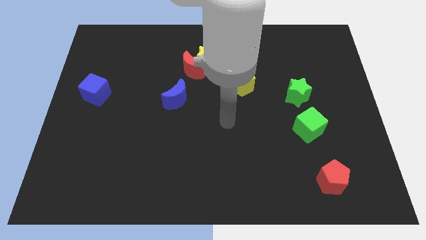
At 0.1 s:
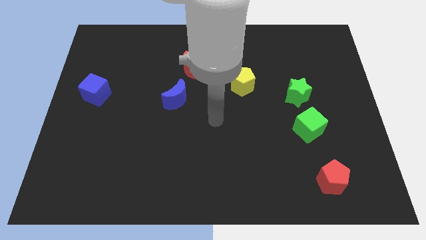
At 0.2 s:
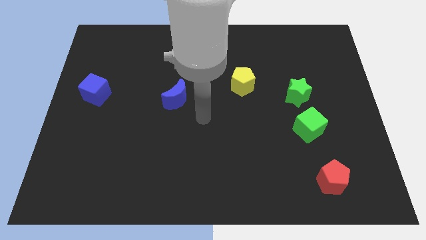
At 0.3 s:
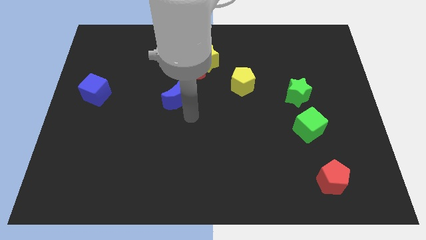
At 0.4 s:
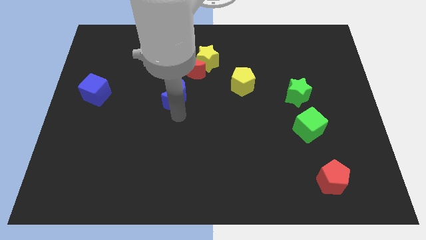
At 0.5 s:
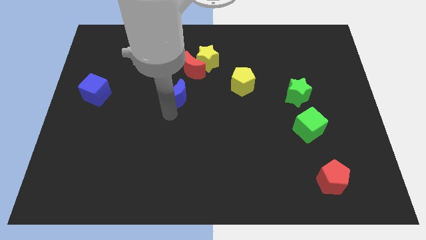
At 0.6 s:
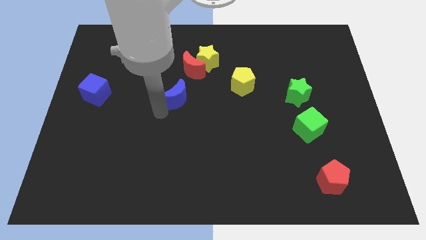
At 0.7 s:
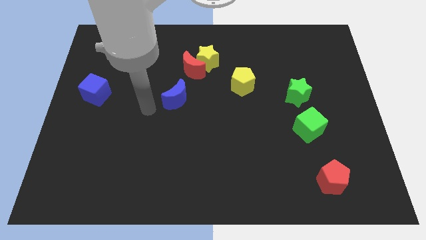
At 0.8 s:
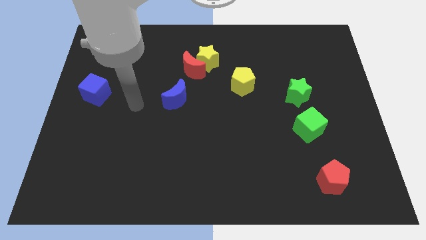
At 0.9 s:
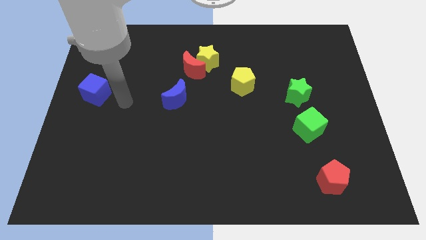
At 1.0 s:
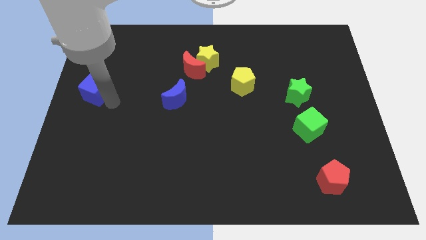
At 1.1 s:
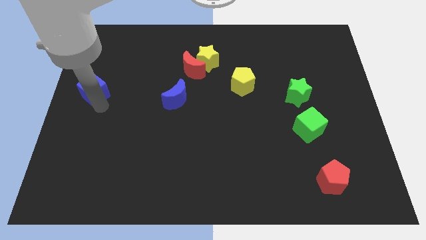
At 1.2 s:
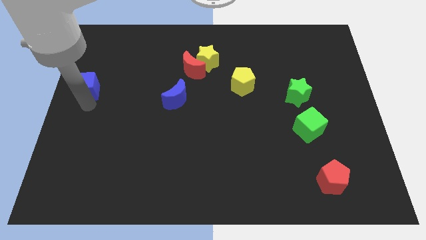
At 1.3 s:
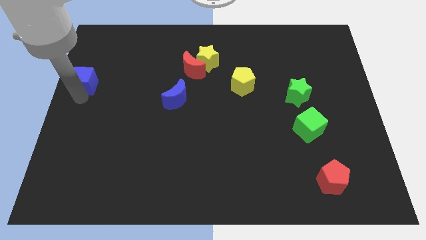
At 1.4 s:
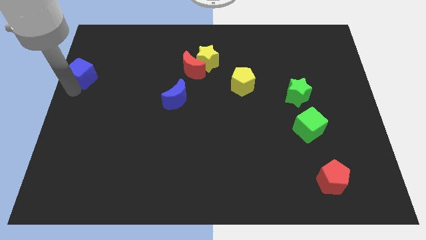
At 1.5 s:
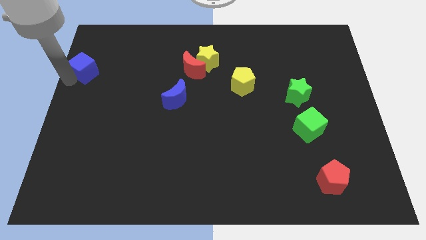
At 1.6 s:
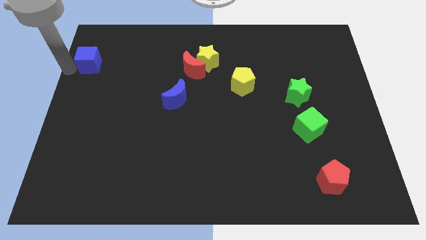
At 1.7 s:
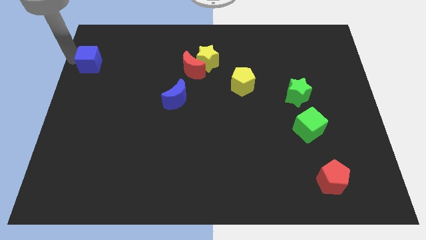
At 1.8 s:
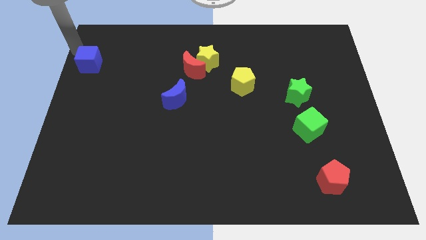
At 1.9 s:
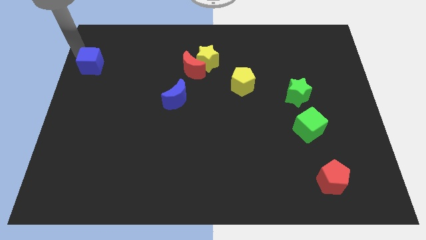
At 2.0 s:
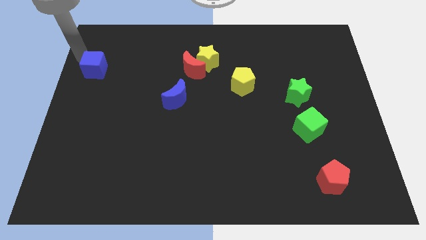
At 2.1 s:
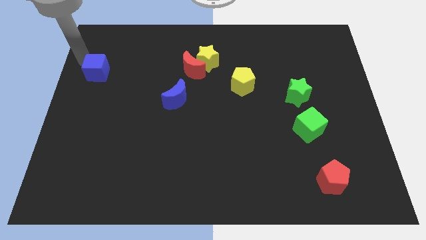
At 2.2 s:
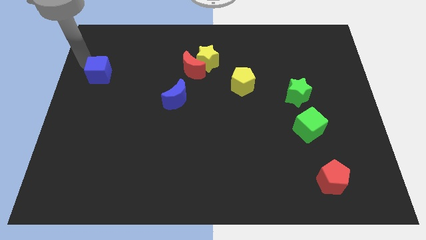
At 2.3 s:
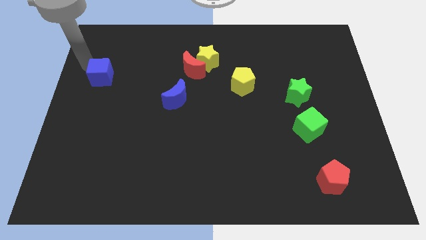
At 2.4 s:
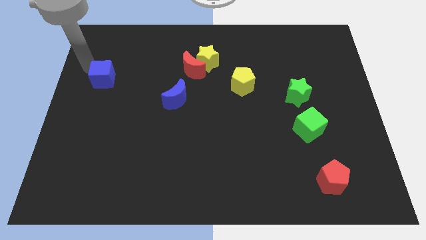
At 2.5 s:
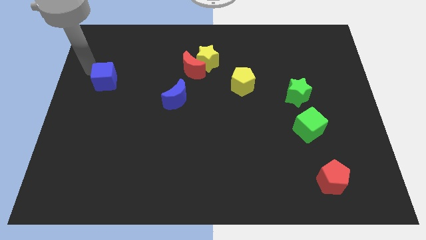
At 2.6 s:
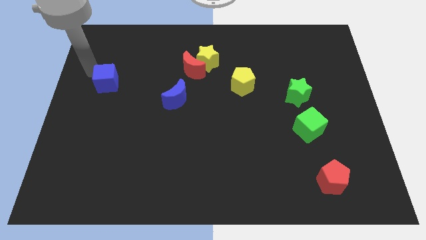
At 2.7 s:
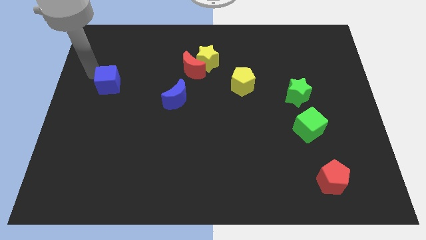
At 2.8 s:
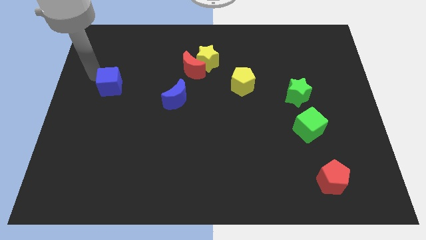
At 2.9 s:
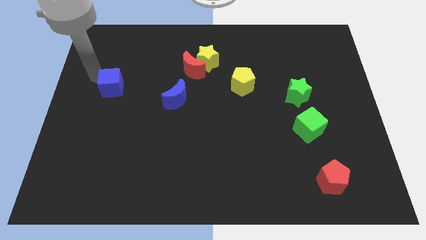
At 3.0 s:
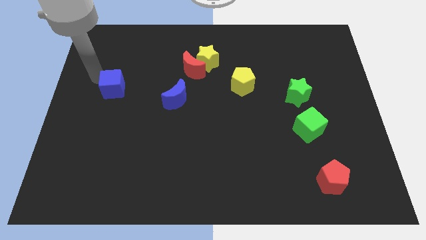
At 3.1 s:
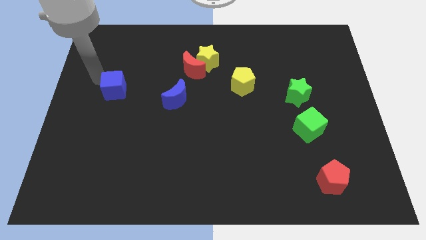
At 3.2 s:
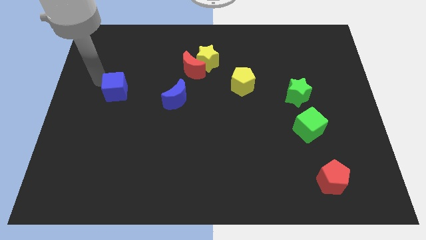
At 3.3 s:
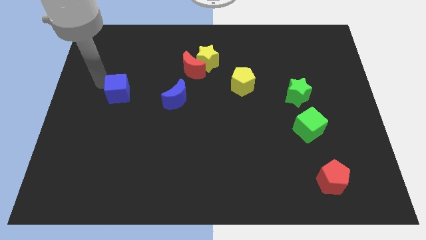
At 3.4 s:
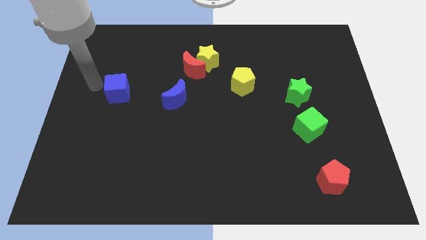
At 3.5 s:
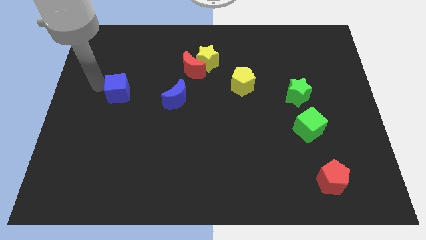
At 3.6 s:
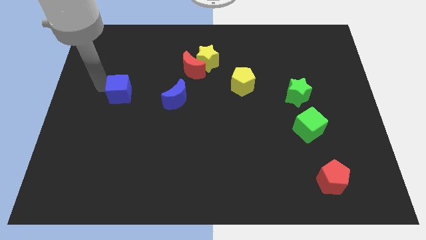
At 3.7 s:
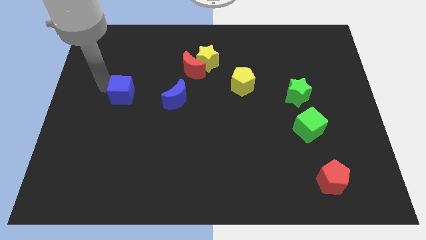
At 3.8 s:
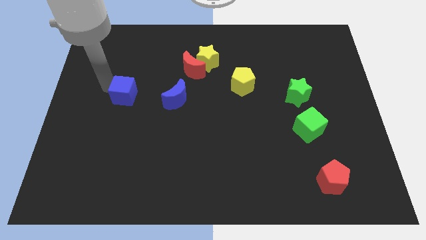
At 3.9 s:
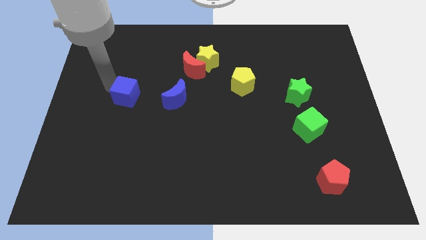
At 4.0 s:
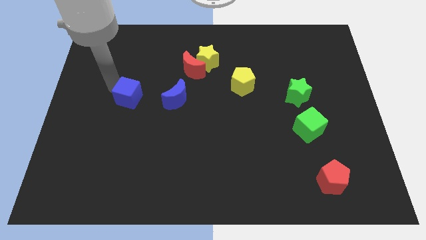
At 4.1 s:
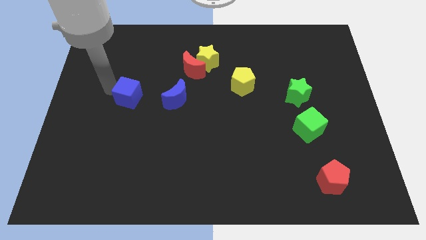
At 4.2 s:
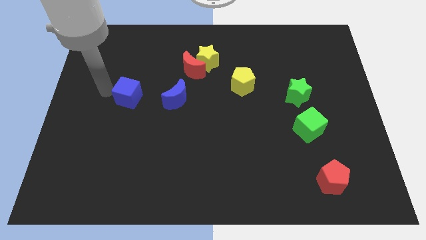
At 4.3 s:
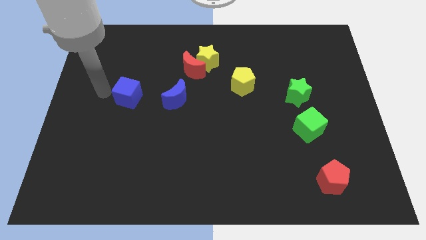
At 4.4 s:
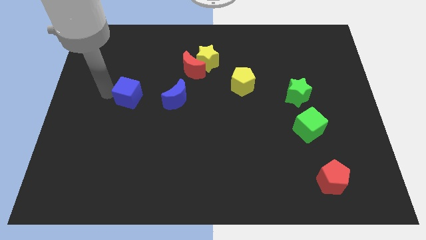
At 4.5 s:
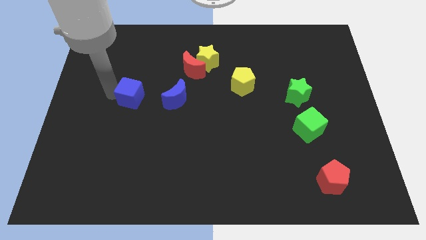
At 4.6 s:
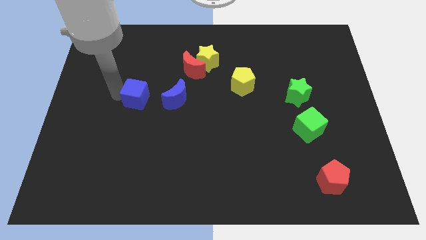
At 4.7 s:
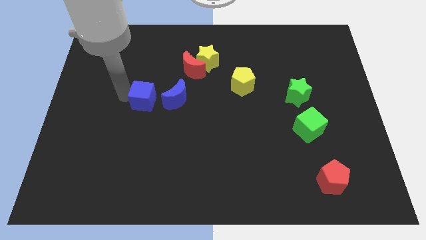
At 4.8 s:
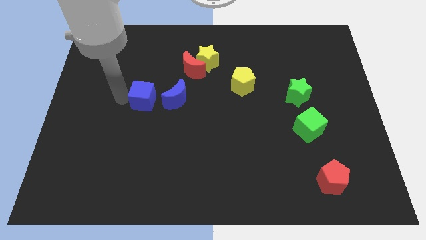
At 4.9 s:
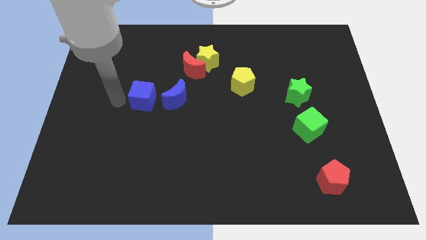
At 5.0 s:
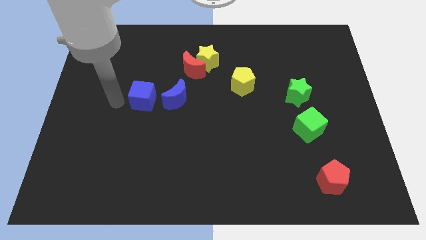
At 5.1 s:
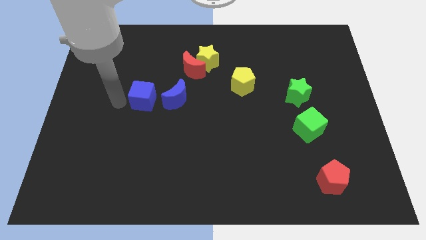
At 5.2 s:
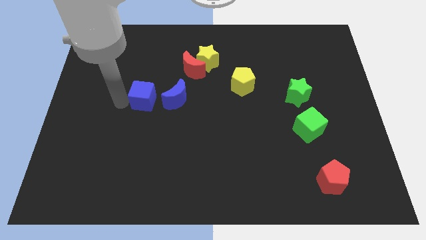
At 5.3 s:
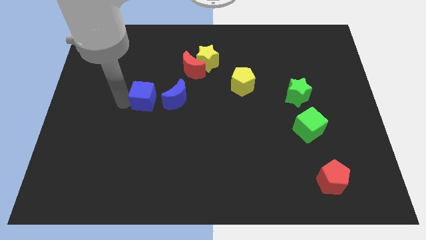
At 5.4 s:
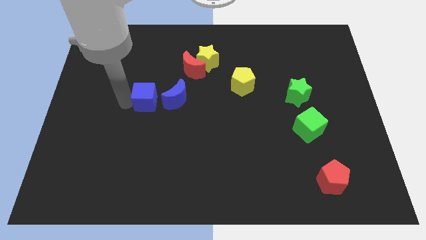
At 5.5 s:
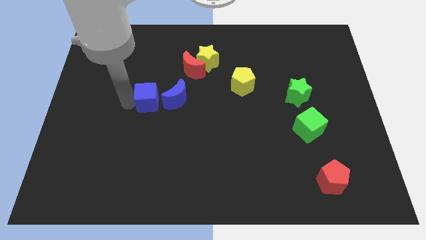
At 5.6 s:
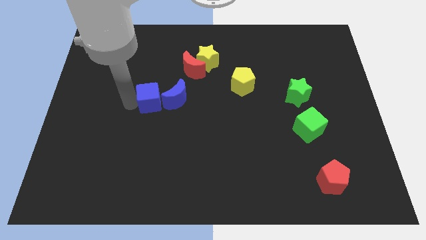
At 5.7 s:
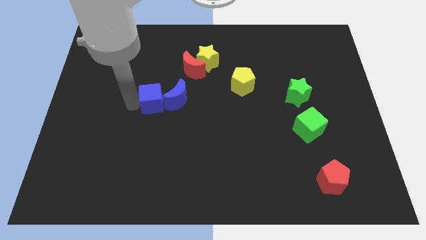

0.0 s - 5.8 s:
slide the blue cube towards the blue moon

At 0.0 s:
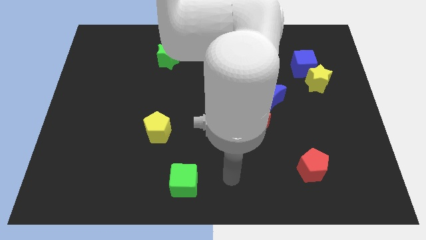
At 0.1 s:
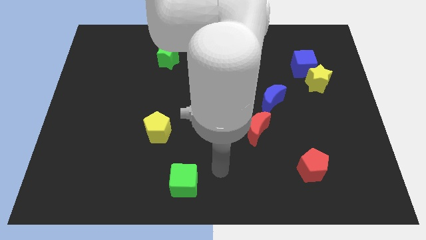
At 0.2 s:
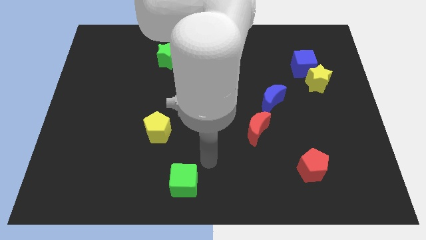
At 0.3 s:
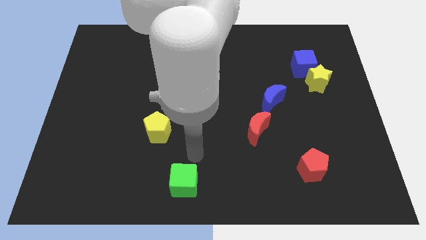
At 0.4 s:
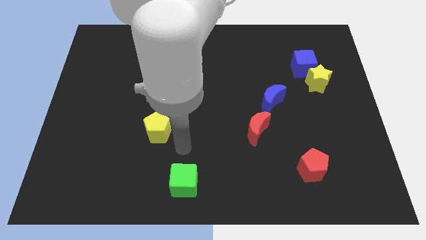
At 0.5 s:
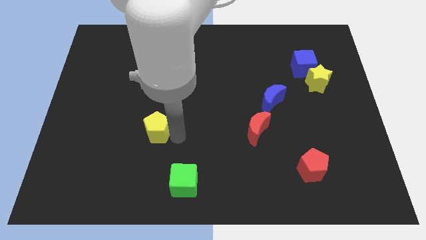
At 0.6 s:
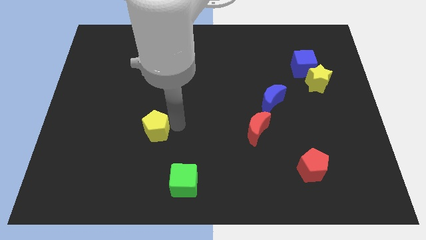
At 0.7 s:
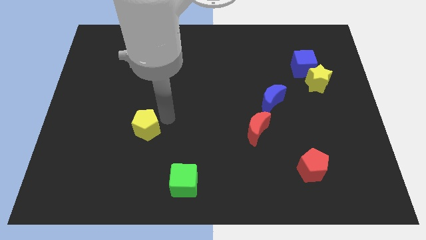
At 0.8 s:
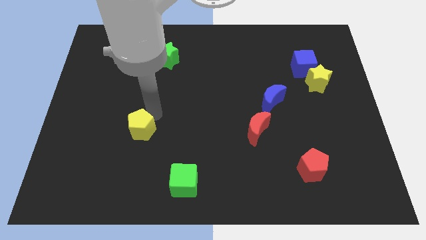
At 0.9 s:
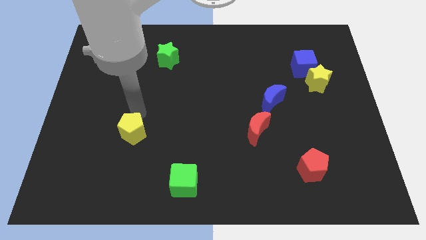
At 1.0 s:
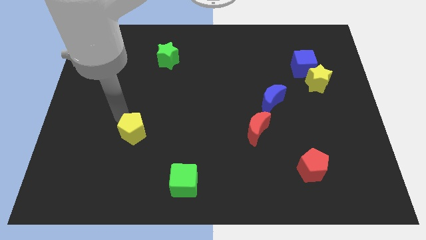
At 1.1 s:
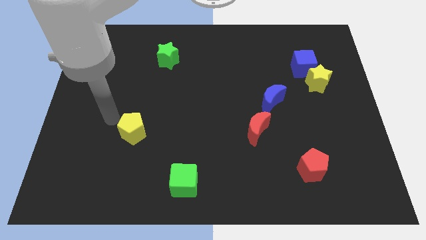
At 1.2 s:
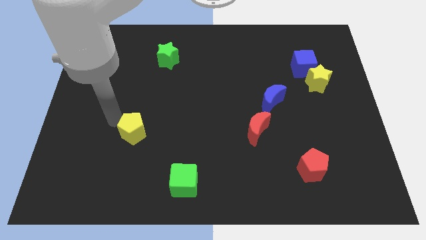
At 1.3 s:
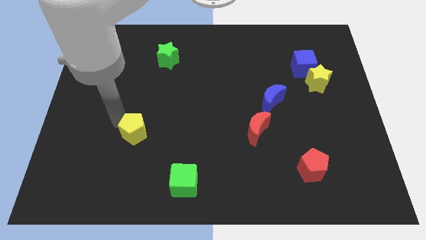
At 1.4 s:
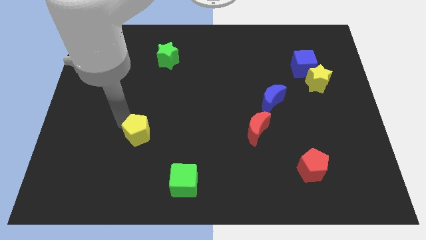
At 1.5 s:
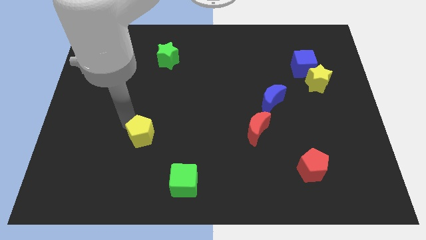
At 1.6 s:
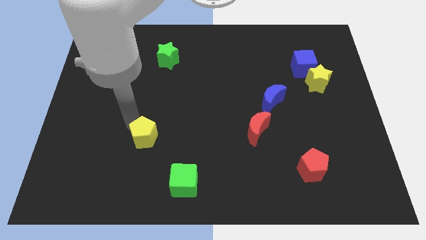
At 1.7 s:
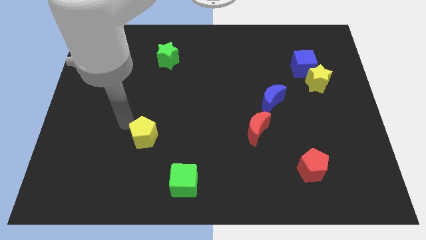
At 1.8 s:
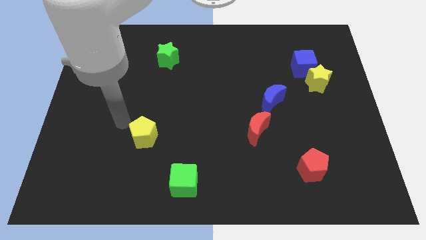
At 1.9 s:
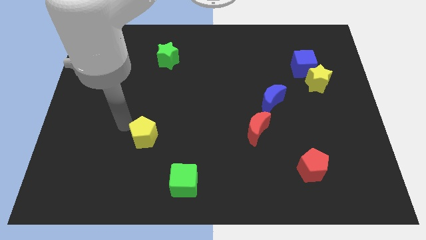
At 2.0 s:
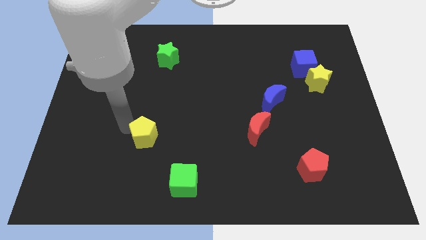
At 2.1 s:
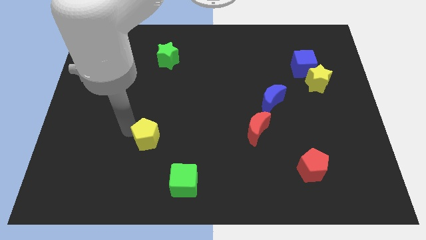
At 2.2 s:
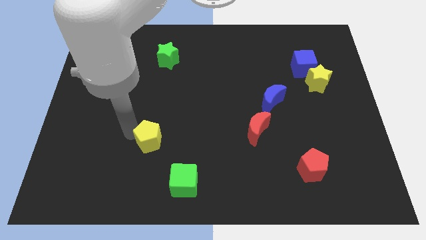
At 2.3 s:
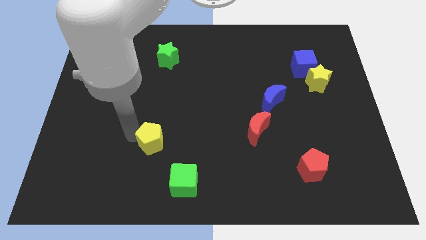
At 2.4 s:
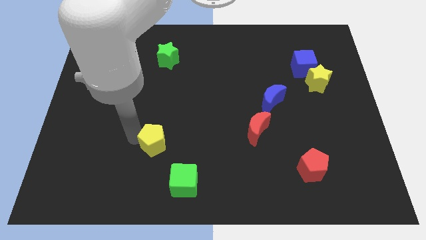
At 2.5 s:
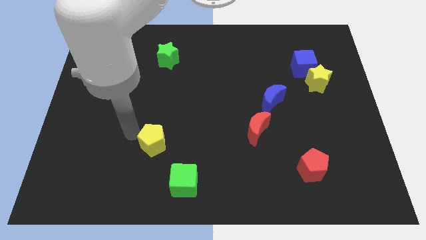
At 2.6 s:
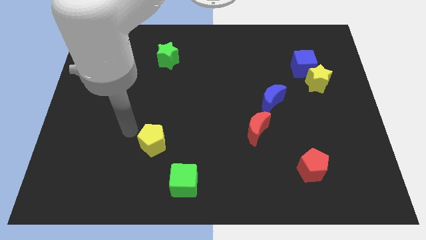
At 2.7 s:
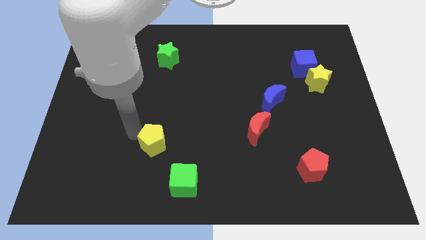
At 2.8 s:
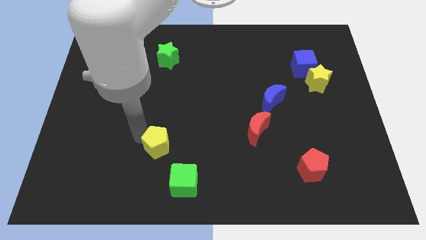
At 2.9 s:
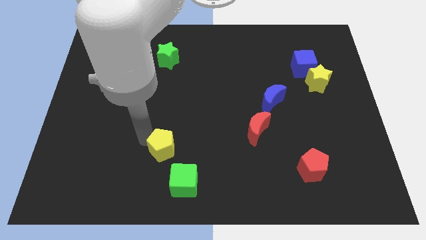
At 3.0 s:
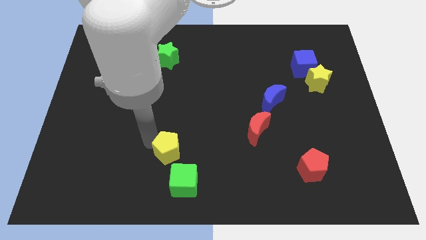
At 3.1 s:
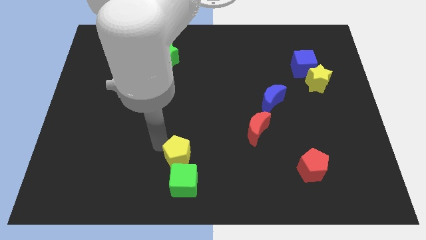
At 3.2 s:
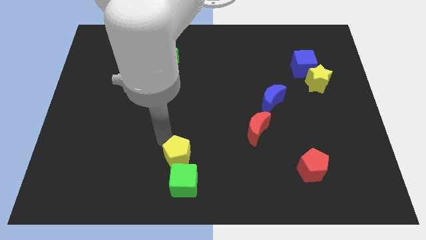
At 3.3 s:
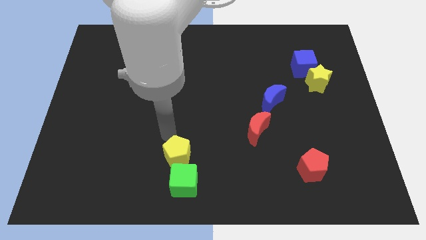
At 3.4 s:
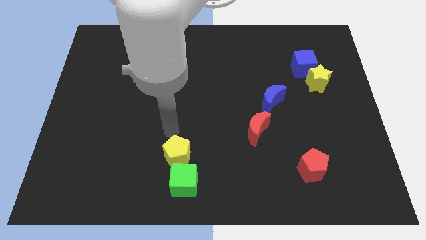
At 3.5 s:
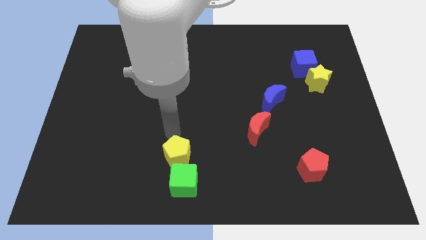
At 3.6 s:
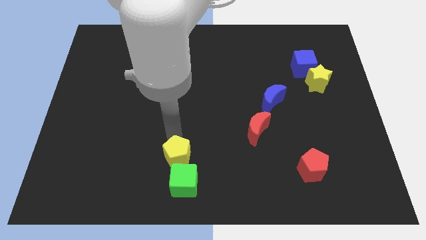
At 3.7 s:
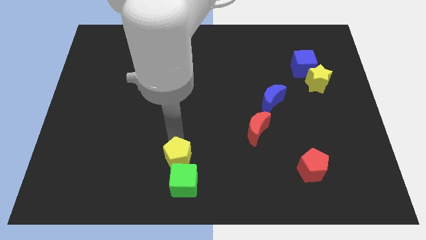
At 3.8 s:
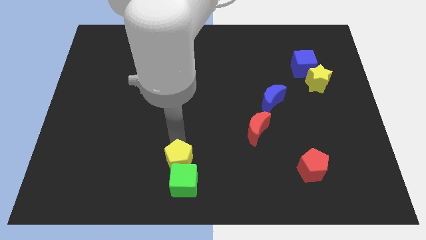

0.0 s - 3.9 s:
put the yellow pentagon close to the green cube
